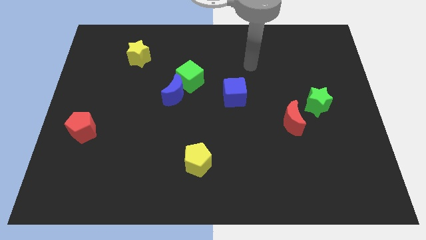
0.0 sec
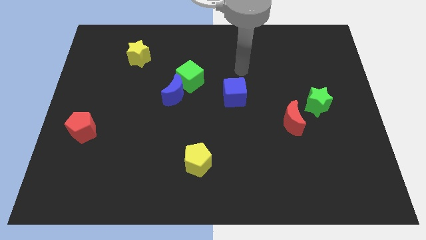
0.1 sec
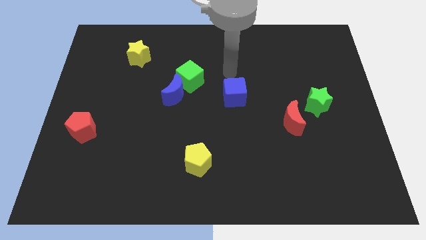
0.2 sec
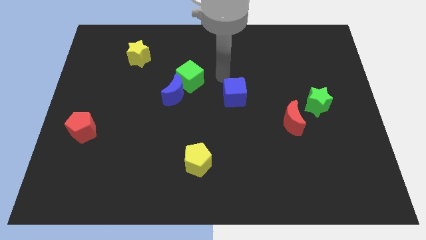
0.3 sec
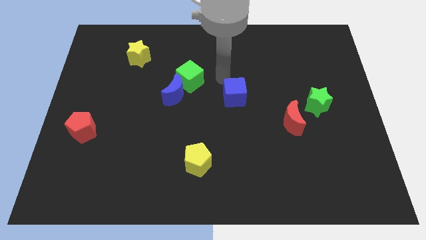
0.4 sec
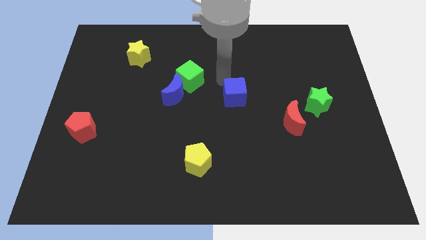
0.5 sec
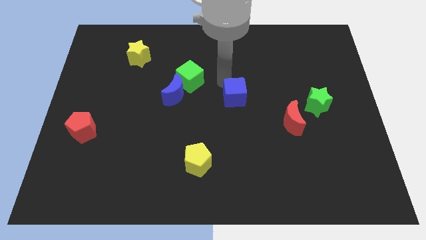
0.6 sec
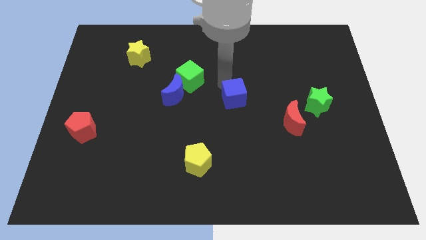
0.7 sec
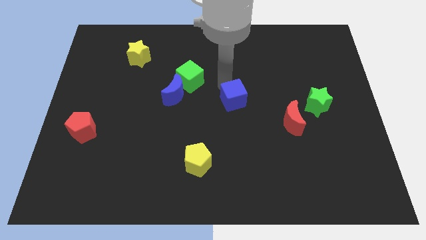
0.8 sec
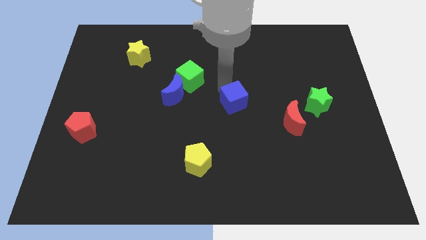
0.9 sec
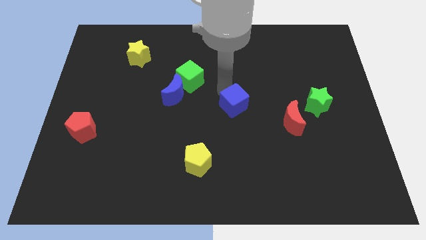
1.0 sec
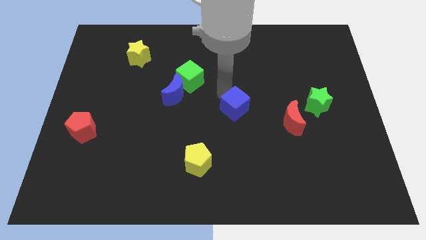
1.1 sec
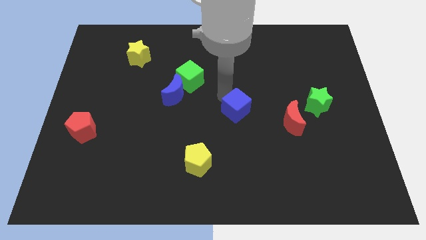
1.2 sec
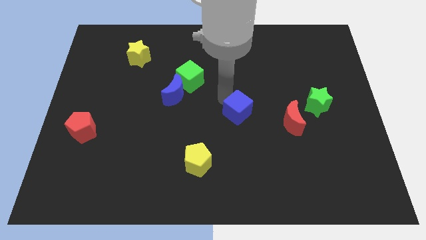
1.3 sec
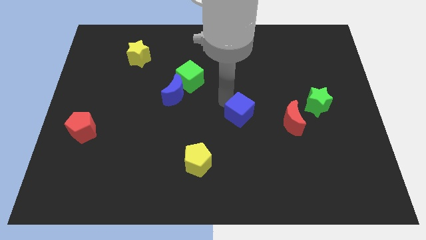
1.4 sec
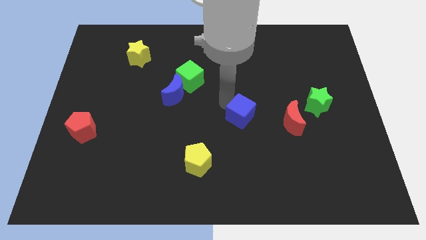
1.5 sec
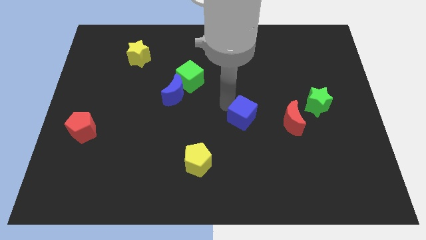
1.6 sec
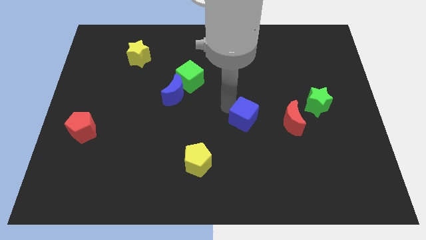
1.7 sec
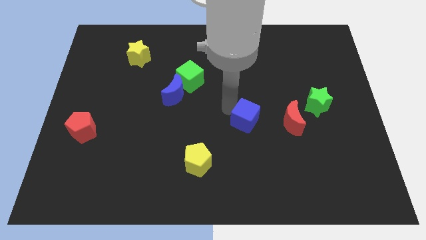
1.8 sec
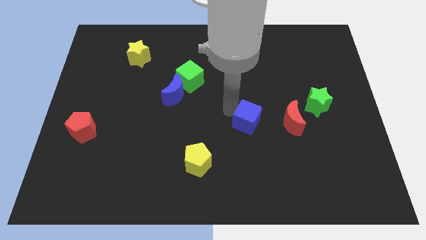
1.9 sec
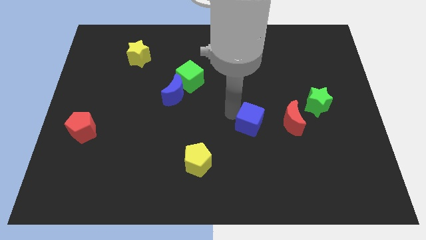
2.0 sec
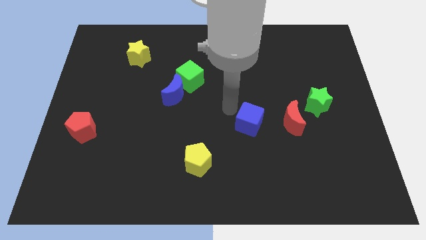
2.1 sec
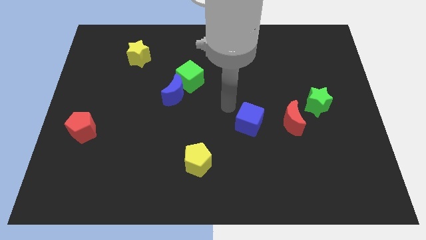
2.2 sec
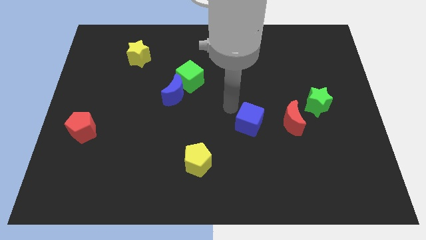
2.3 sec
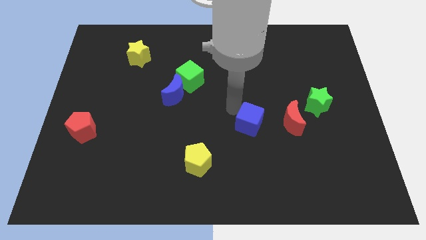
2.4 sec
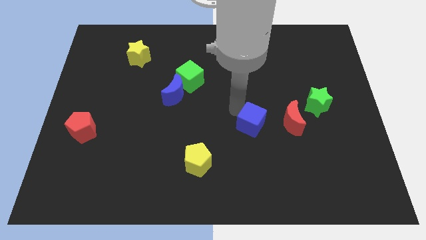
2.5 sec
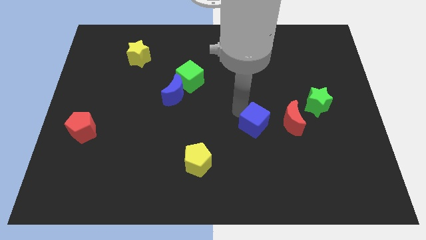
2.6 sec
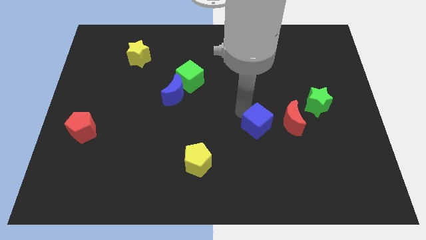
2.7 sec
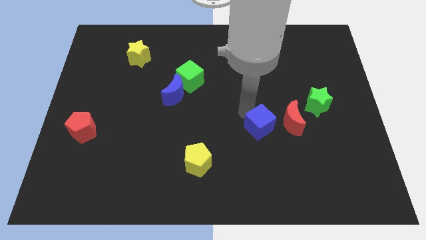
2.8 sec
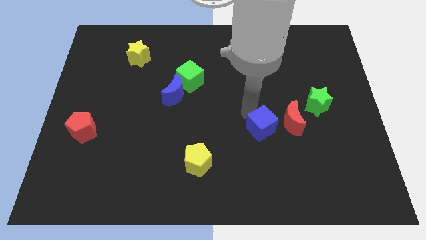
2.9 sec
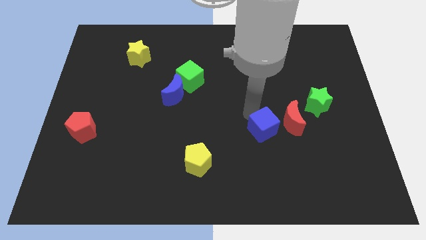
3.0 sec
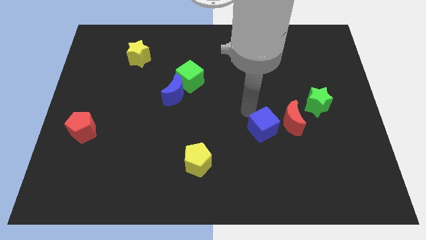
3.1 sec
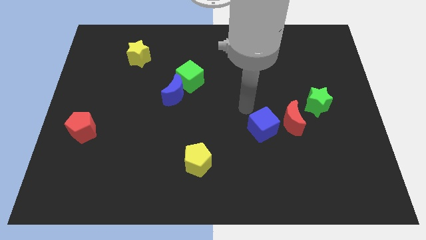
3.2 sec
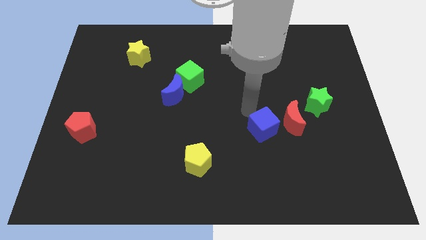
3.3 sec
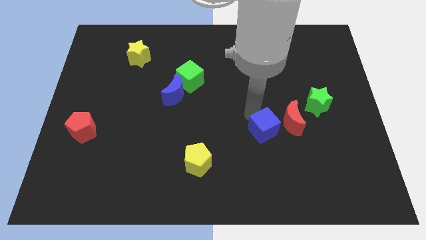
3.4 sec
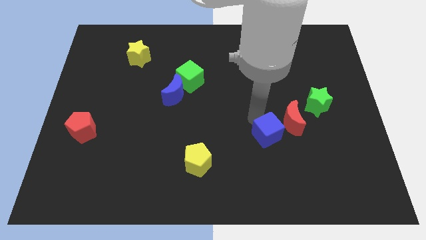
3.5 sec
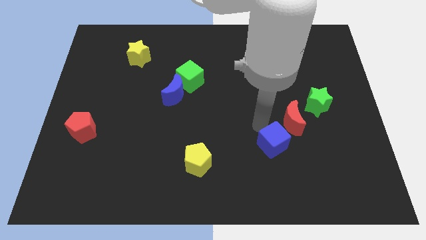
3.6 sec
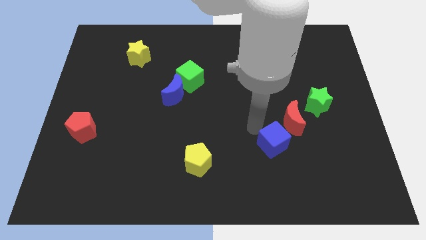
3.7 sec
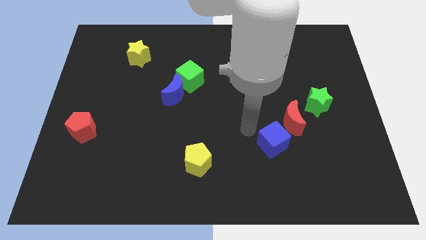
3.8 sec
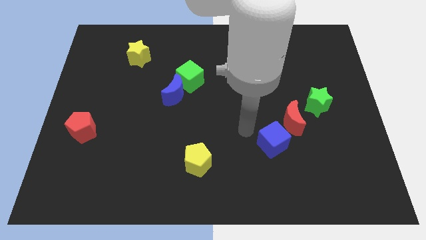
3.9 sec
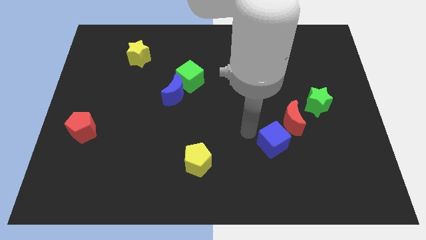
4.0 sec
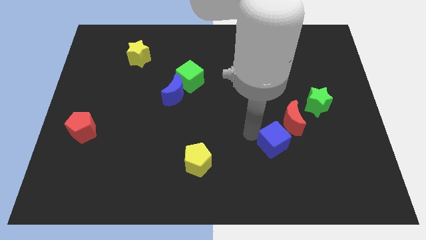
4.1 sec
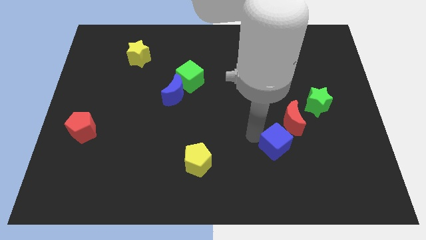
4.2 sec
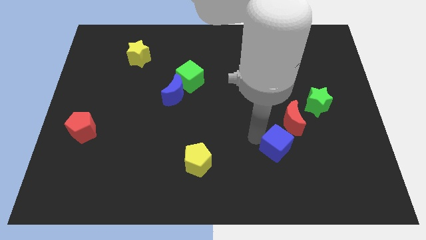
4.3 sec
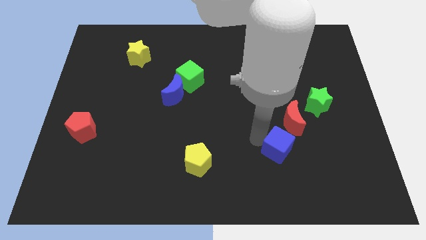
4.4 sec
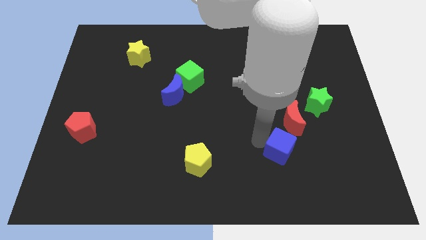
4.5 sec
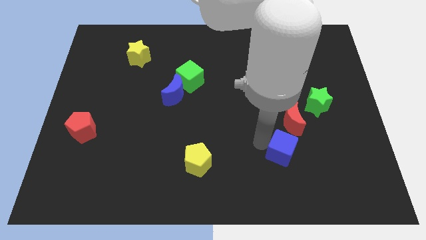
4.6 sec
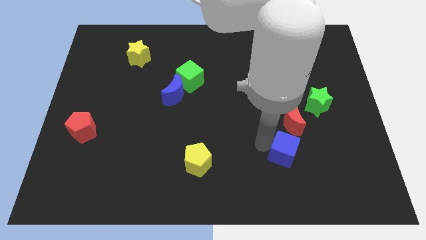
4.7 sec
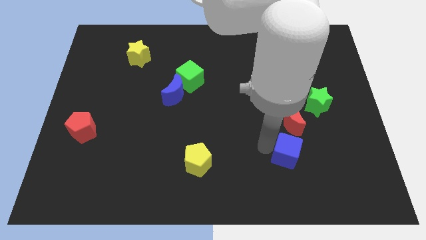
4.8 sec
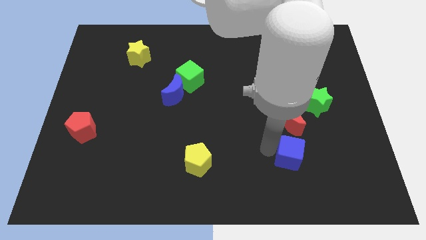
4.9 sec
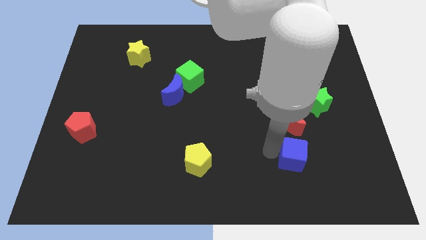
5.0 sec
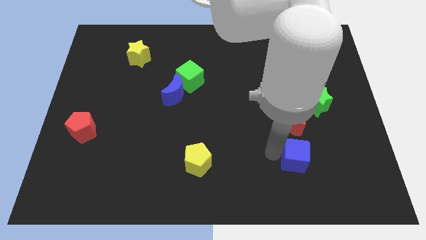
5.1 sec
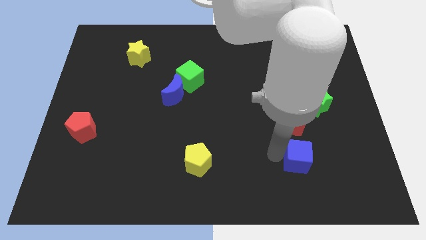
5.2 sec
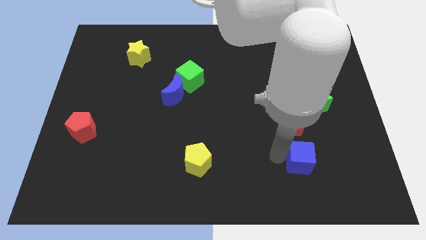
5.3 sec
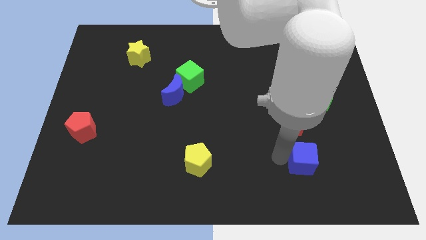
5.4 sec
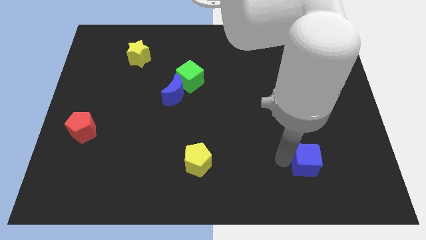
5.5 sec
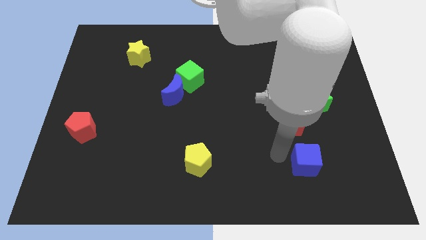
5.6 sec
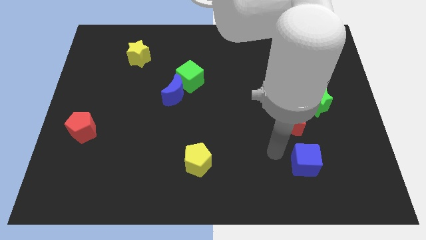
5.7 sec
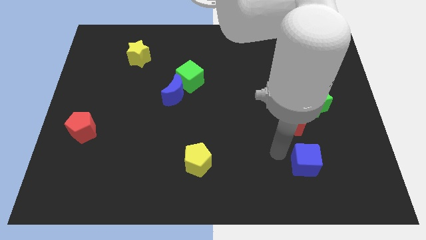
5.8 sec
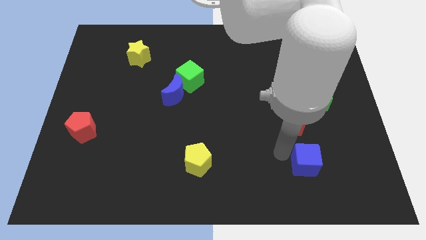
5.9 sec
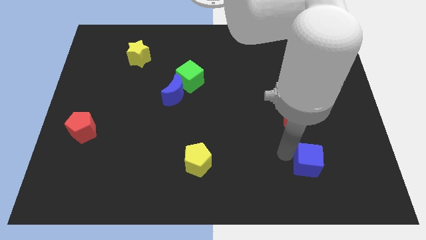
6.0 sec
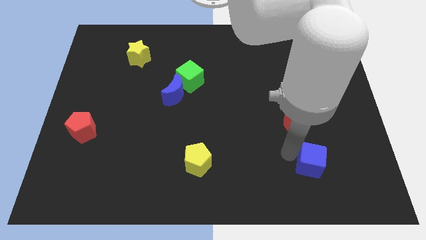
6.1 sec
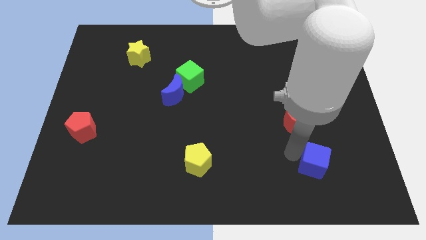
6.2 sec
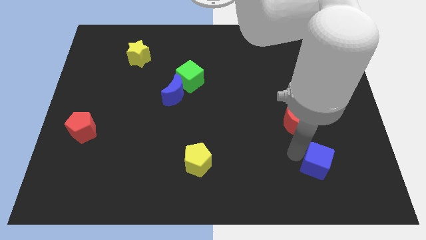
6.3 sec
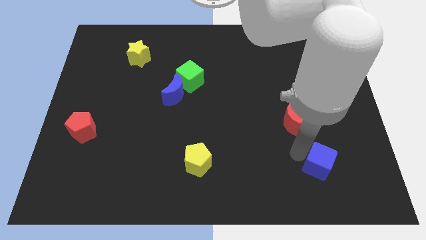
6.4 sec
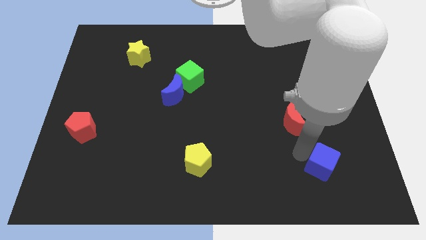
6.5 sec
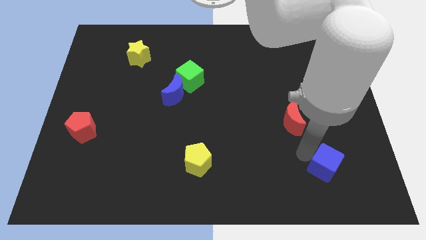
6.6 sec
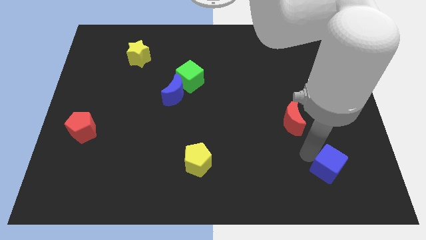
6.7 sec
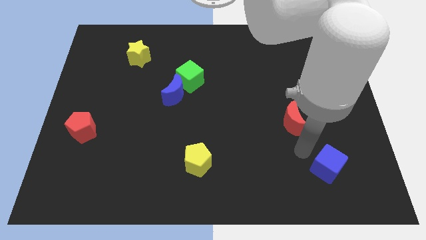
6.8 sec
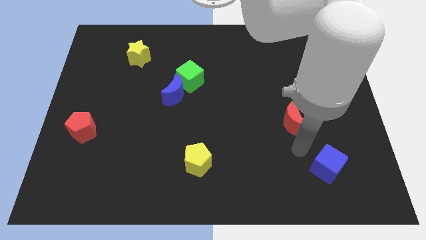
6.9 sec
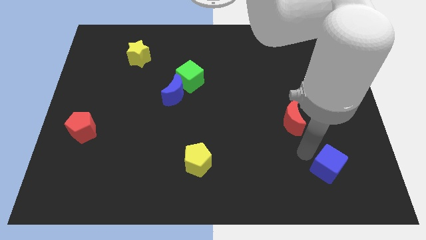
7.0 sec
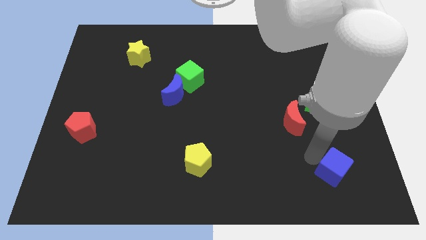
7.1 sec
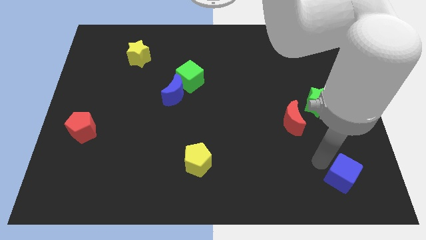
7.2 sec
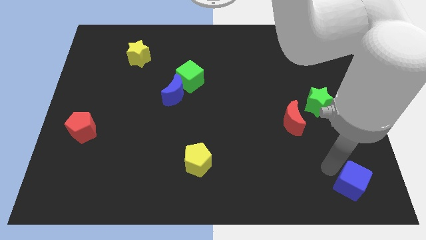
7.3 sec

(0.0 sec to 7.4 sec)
push the blue cube to the bottom right of the board
